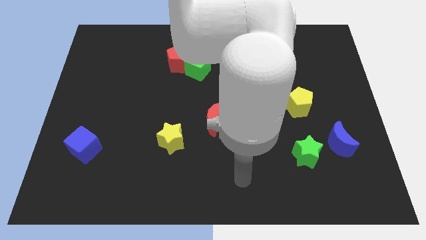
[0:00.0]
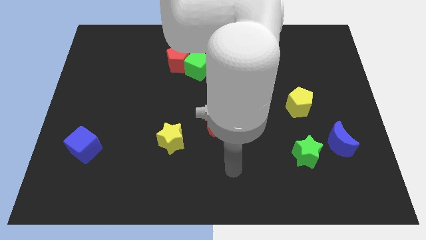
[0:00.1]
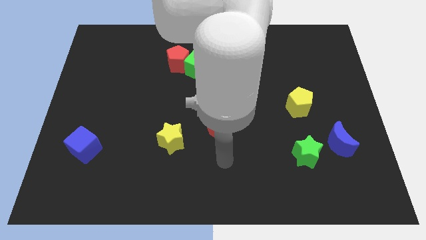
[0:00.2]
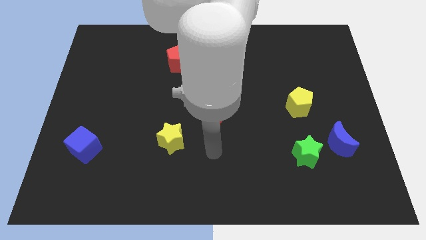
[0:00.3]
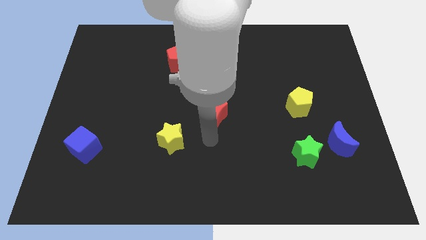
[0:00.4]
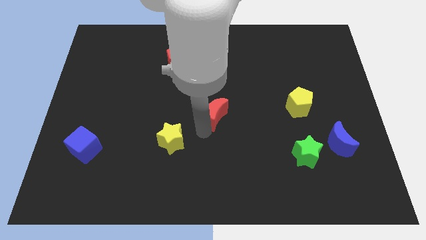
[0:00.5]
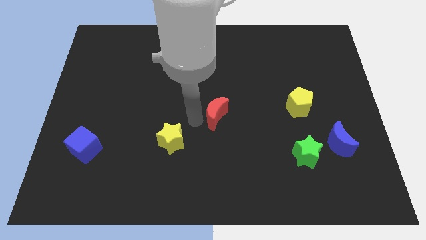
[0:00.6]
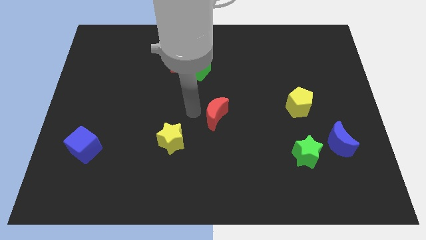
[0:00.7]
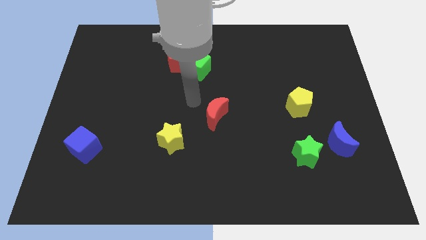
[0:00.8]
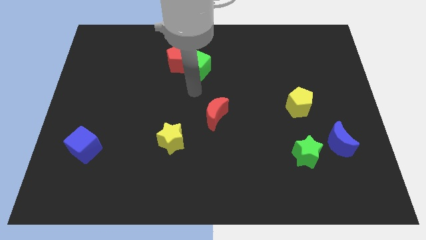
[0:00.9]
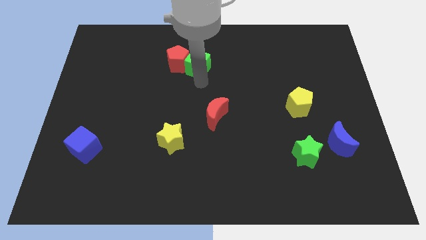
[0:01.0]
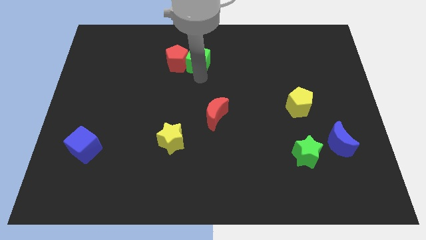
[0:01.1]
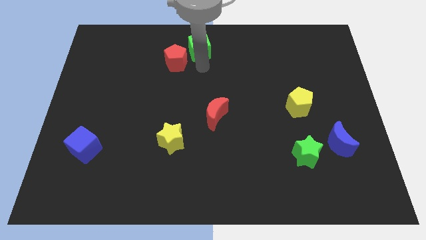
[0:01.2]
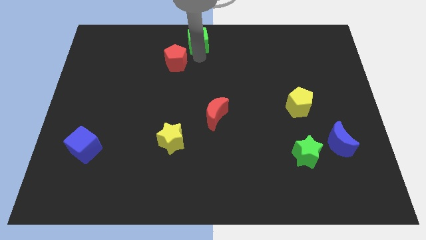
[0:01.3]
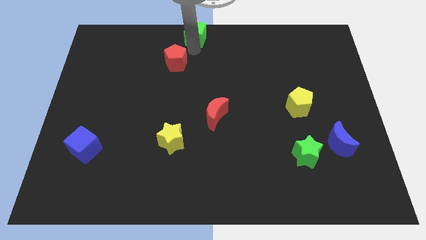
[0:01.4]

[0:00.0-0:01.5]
move the red pentagon away from the green cube

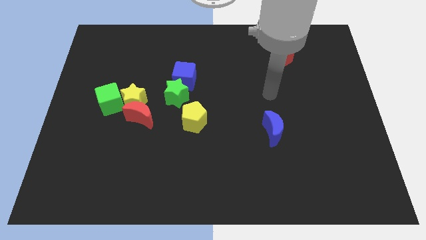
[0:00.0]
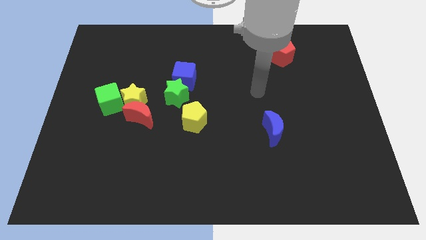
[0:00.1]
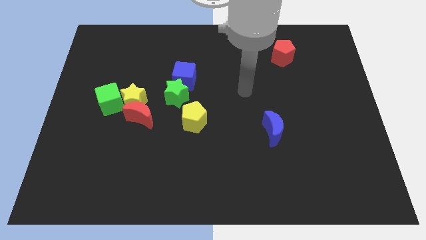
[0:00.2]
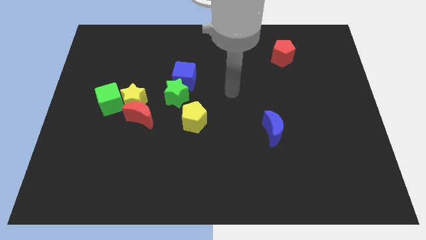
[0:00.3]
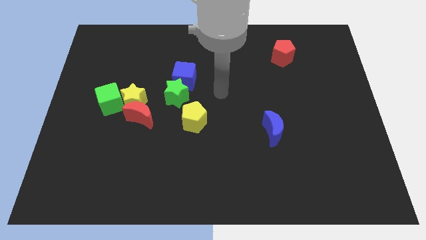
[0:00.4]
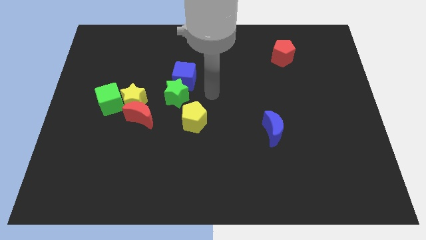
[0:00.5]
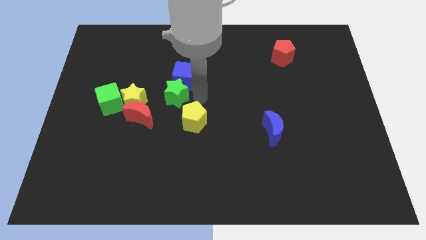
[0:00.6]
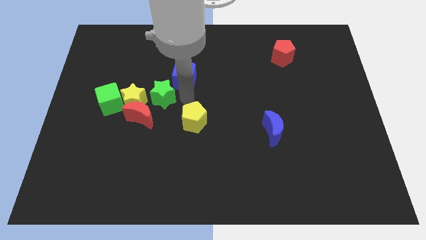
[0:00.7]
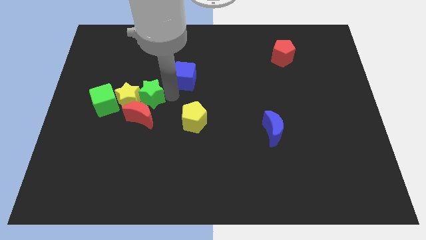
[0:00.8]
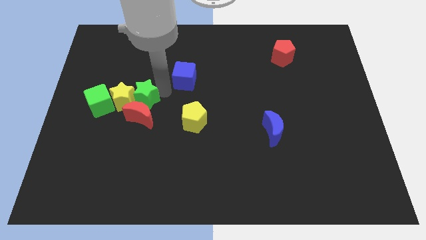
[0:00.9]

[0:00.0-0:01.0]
pull the blue cube apart from the green star

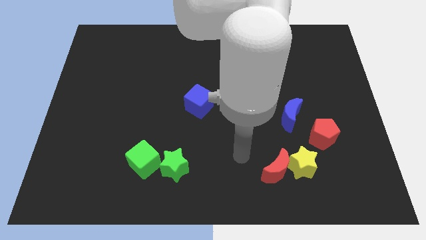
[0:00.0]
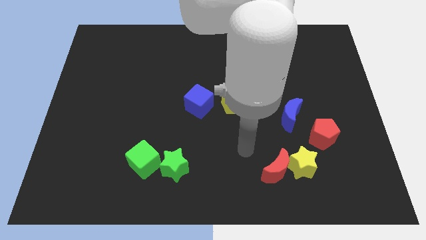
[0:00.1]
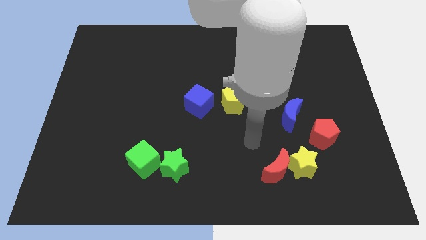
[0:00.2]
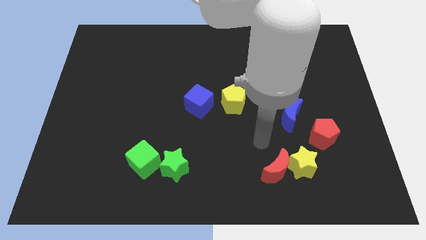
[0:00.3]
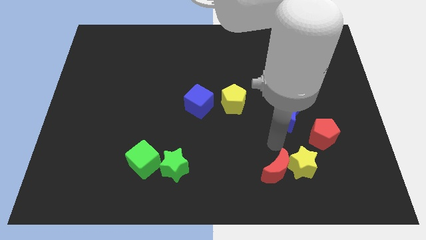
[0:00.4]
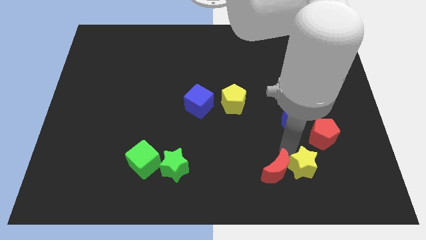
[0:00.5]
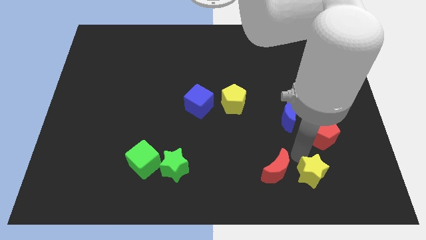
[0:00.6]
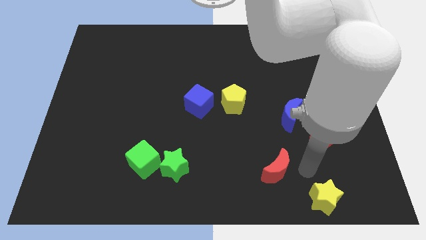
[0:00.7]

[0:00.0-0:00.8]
move the red moon away from the yellow star

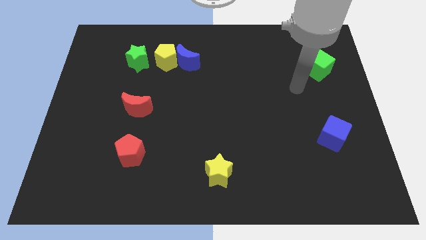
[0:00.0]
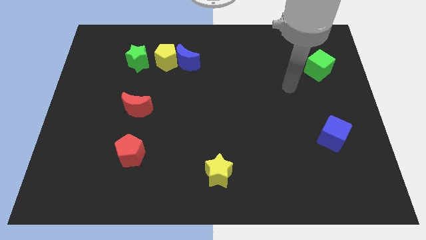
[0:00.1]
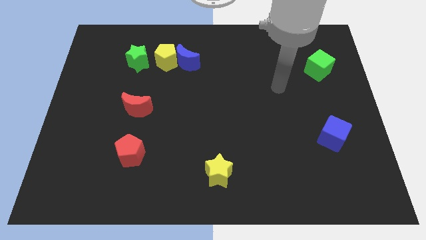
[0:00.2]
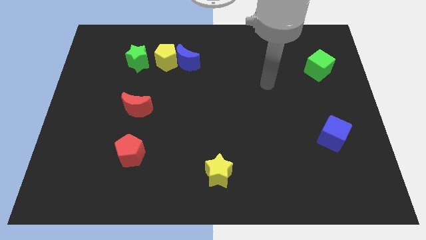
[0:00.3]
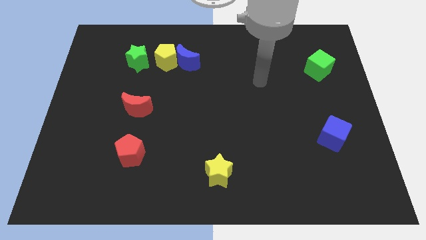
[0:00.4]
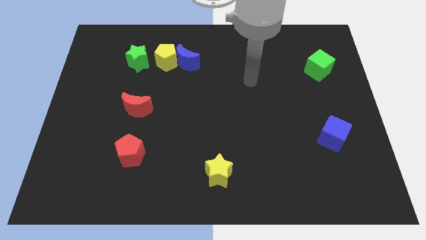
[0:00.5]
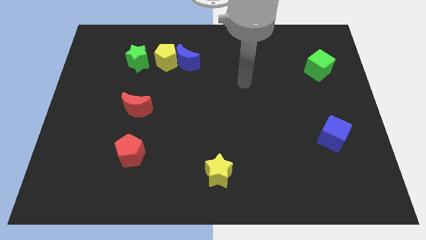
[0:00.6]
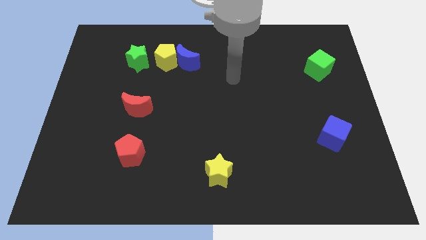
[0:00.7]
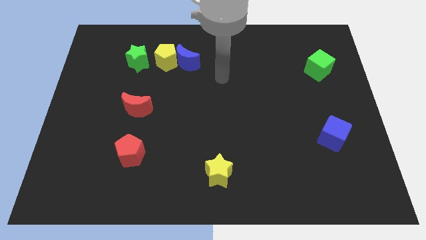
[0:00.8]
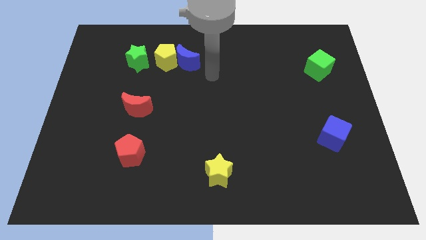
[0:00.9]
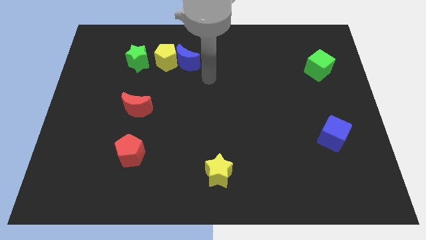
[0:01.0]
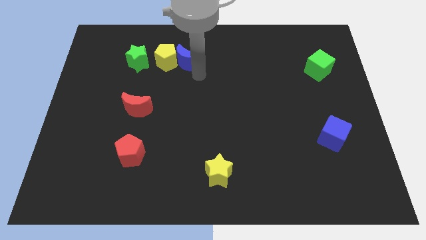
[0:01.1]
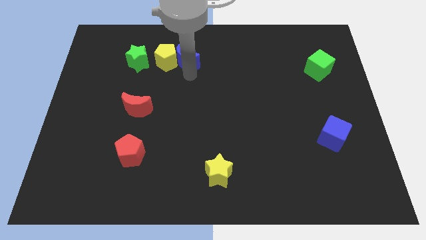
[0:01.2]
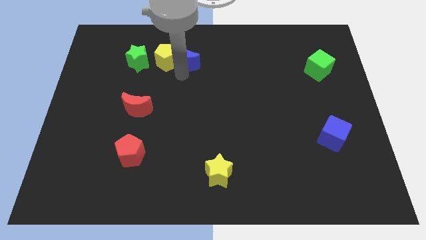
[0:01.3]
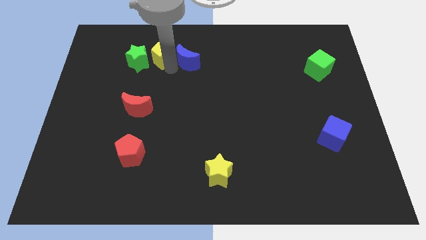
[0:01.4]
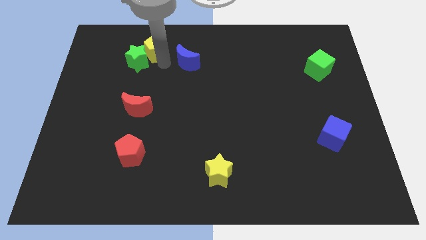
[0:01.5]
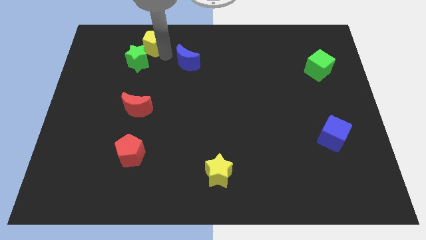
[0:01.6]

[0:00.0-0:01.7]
pull the blue moon apart from the yellow pentagon

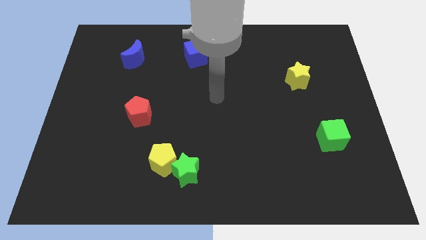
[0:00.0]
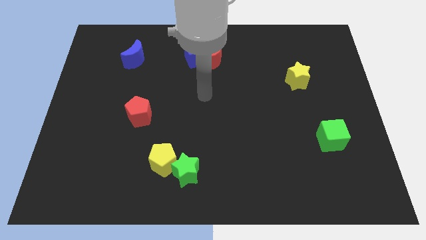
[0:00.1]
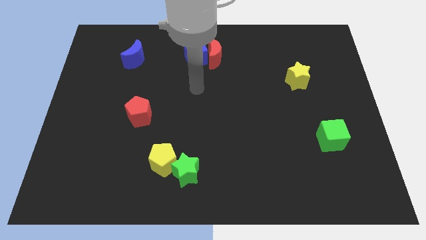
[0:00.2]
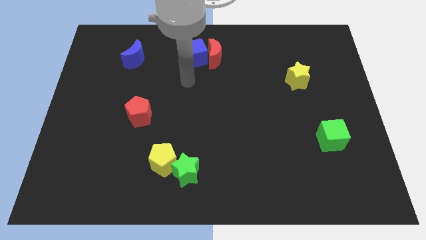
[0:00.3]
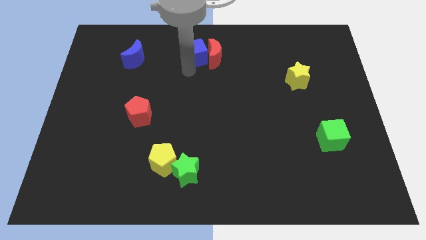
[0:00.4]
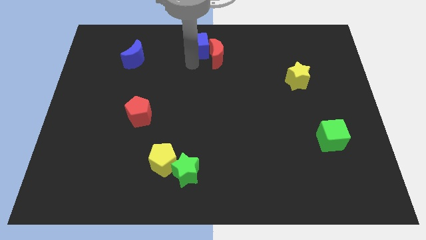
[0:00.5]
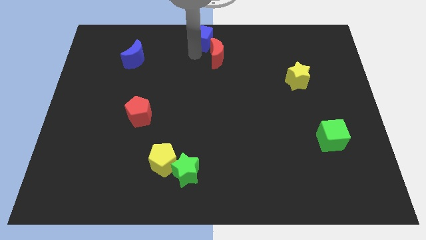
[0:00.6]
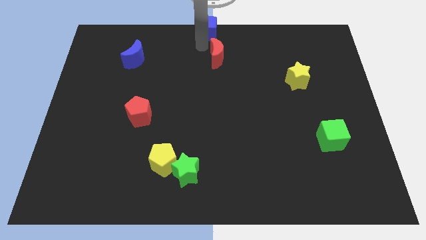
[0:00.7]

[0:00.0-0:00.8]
pull the red moon apart from the blue cube

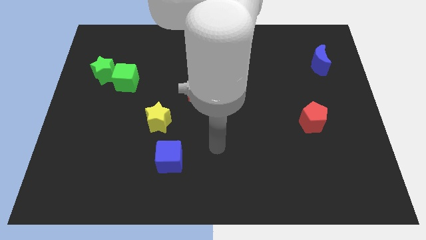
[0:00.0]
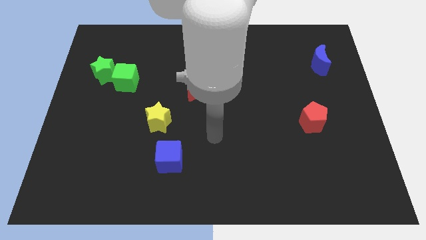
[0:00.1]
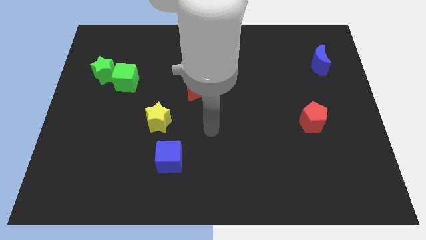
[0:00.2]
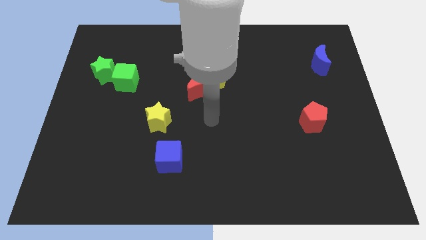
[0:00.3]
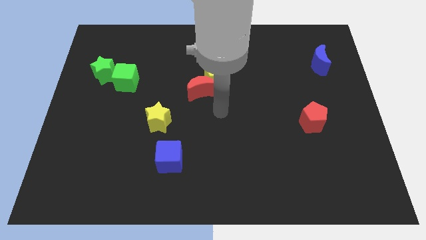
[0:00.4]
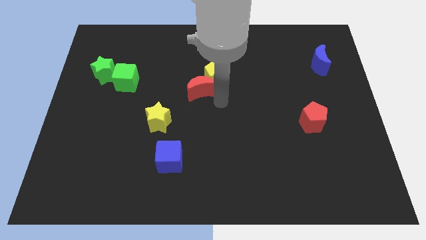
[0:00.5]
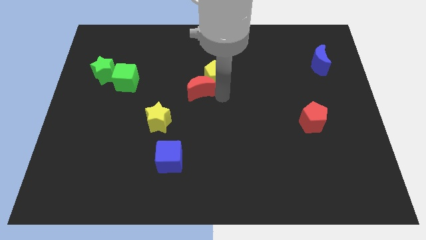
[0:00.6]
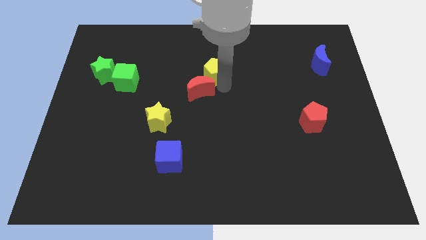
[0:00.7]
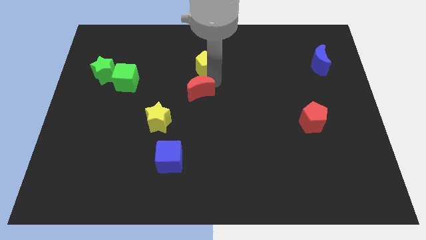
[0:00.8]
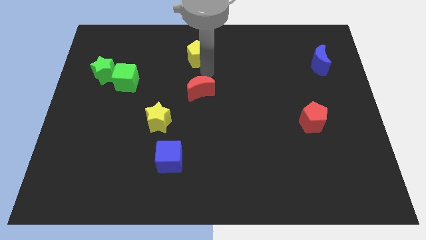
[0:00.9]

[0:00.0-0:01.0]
pull the red moon apart from the yellow pentagon

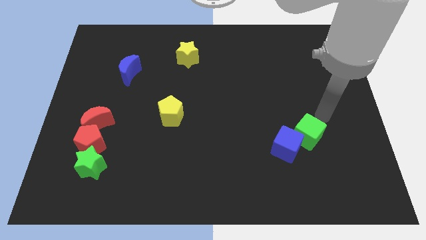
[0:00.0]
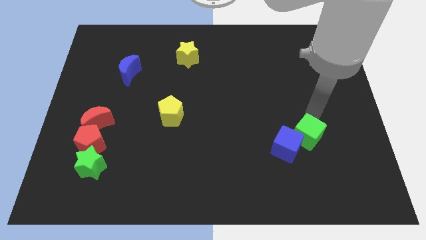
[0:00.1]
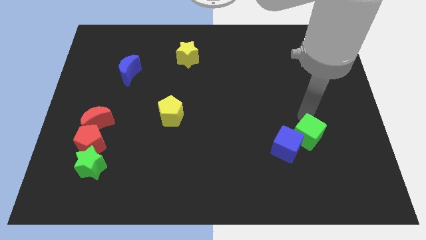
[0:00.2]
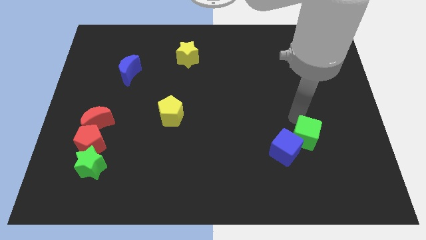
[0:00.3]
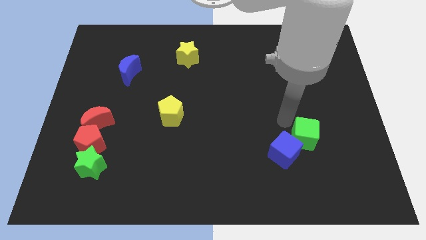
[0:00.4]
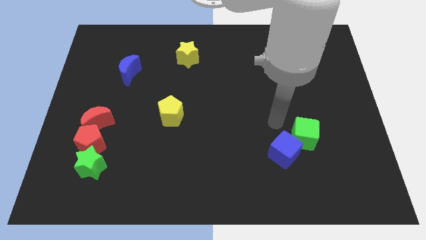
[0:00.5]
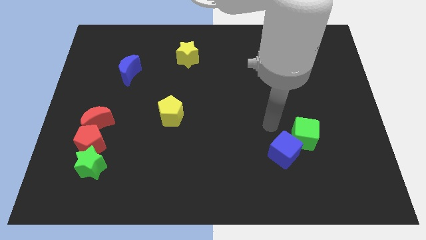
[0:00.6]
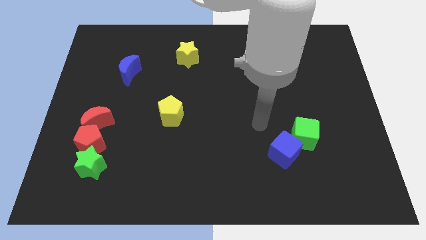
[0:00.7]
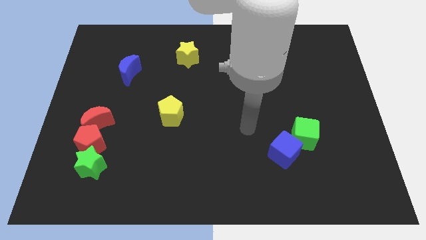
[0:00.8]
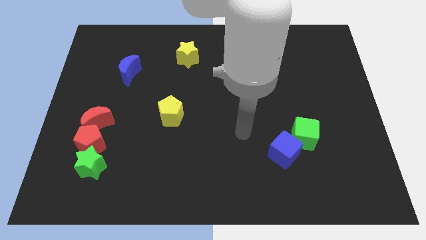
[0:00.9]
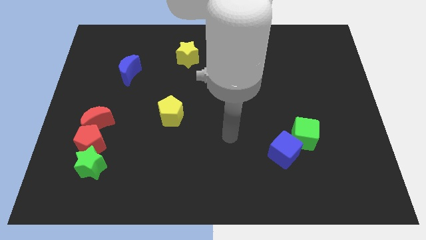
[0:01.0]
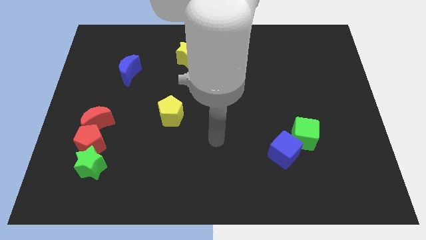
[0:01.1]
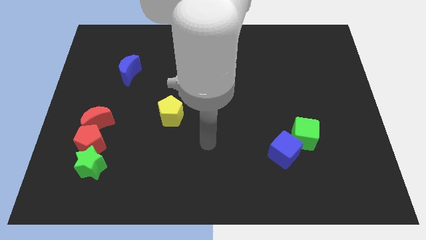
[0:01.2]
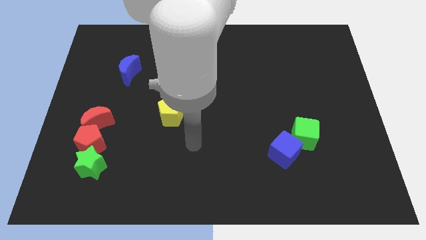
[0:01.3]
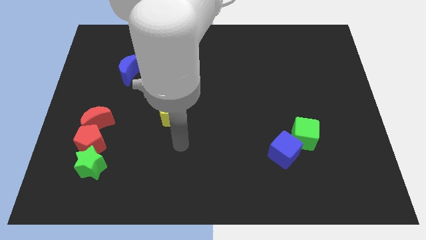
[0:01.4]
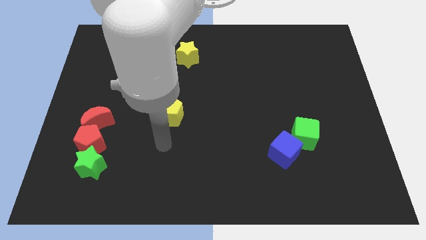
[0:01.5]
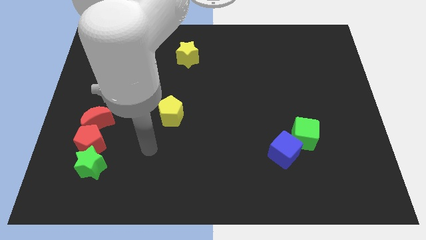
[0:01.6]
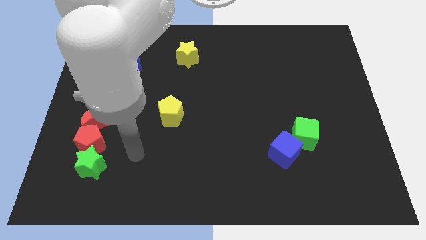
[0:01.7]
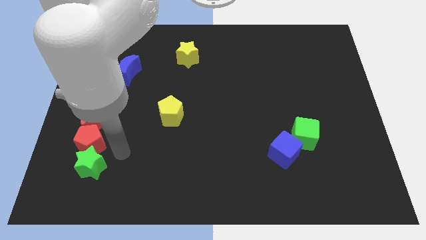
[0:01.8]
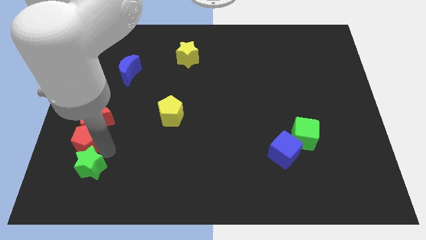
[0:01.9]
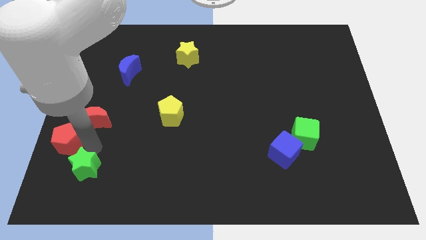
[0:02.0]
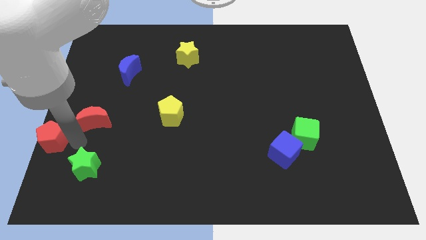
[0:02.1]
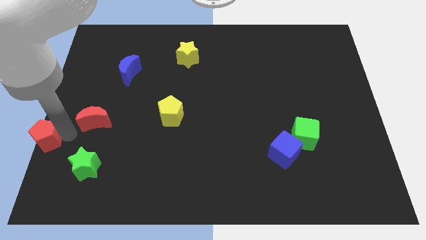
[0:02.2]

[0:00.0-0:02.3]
move the red moon away from the red pentagon
